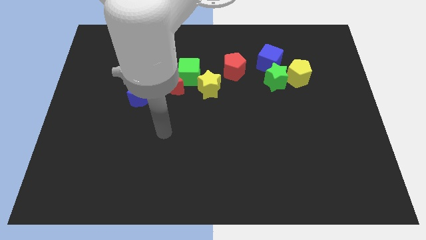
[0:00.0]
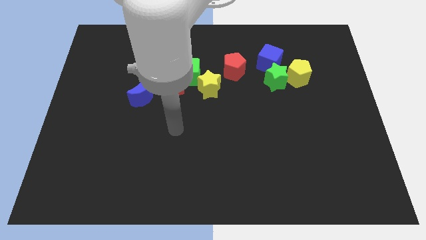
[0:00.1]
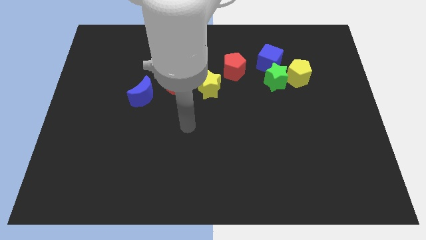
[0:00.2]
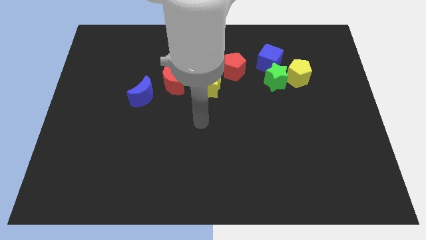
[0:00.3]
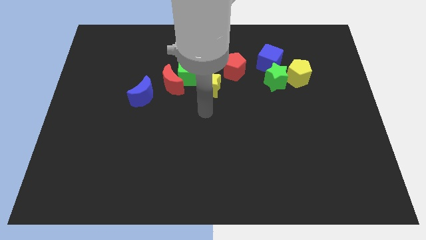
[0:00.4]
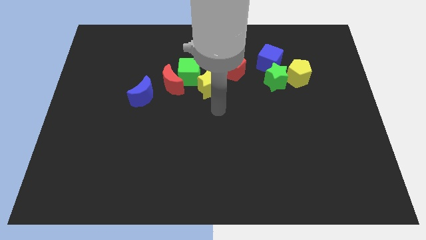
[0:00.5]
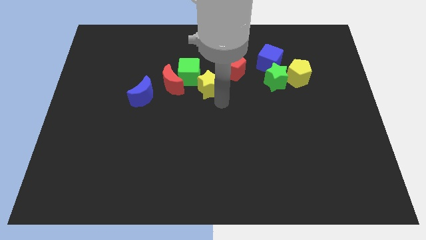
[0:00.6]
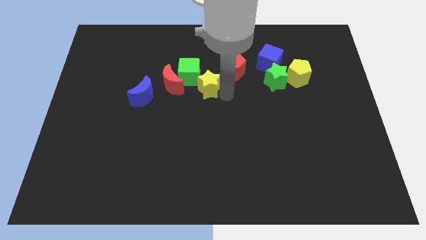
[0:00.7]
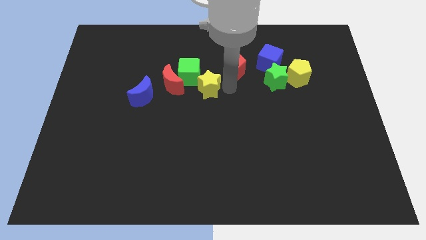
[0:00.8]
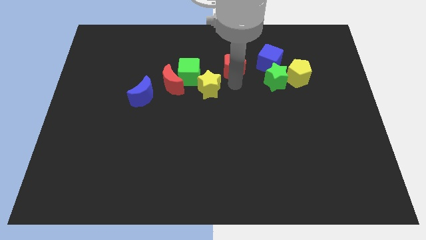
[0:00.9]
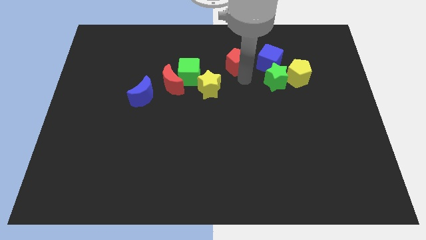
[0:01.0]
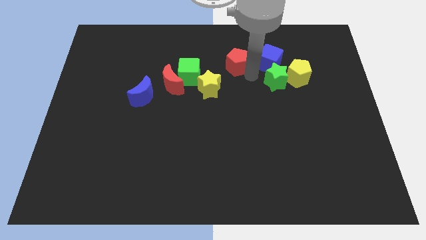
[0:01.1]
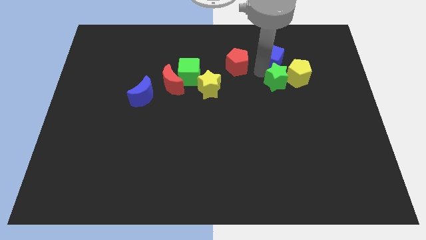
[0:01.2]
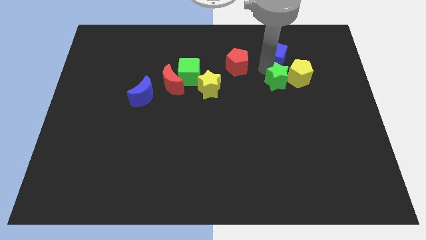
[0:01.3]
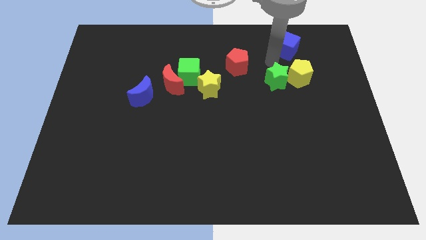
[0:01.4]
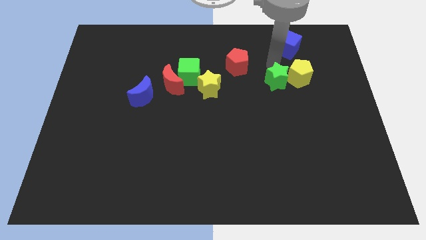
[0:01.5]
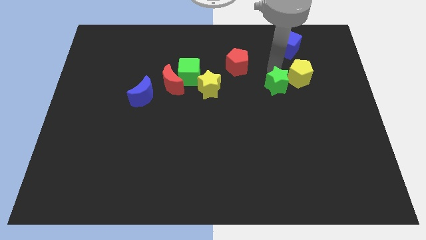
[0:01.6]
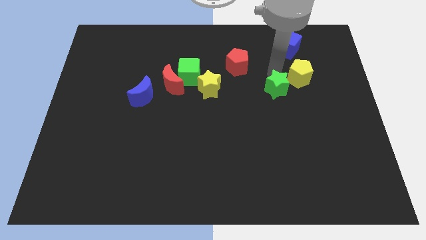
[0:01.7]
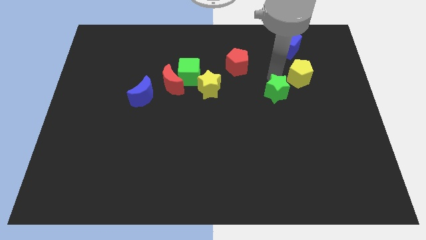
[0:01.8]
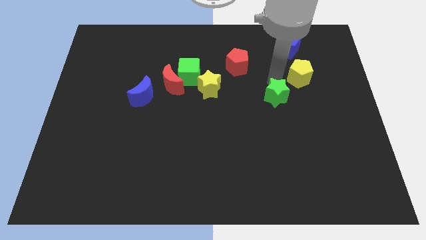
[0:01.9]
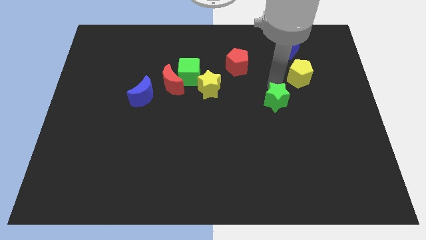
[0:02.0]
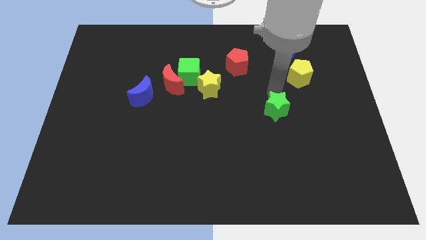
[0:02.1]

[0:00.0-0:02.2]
slide the green star downwards a little bit

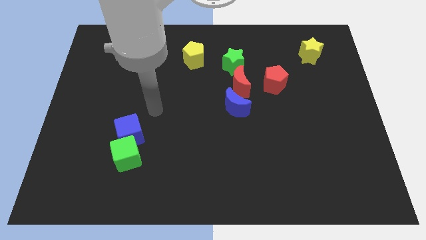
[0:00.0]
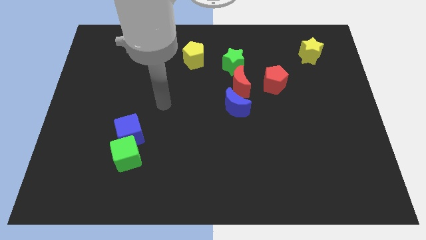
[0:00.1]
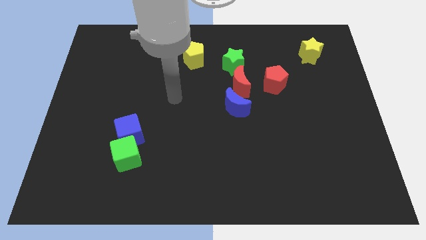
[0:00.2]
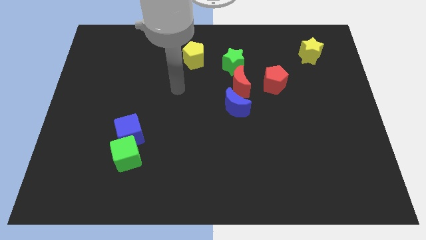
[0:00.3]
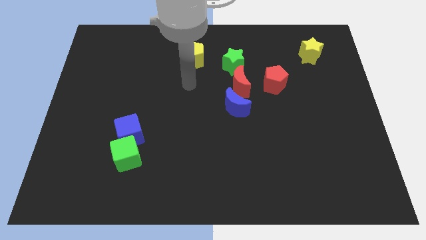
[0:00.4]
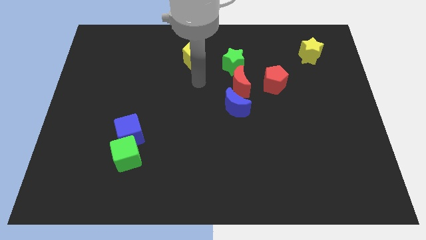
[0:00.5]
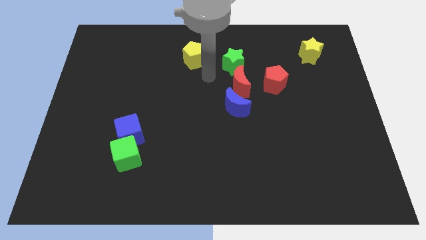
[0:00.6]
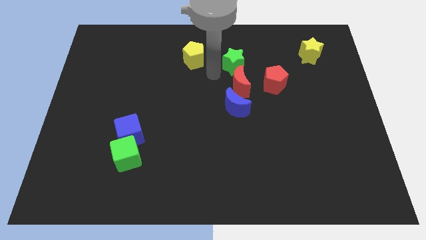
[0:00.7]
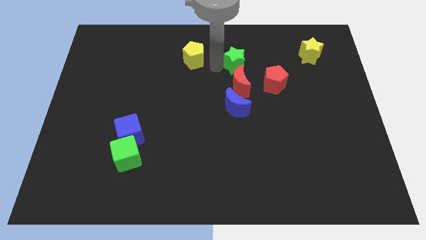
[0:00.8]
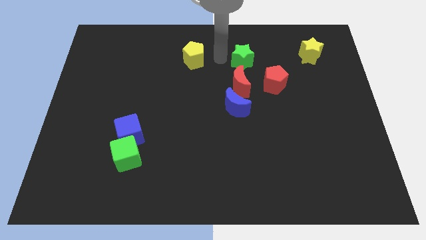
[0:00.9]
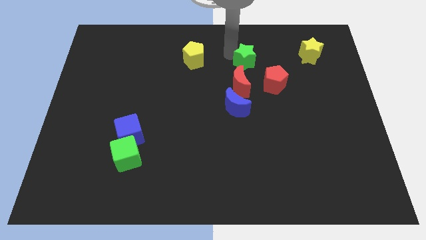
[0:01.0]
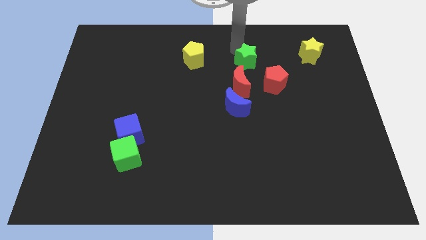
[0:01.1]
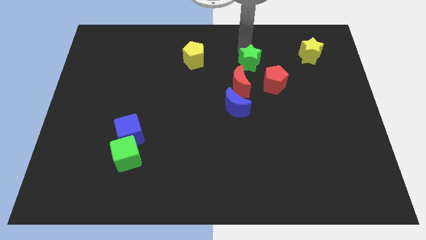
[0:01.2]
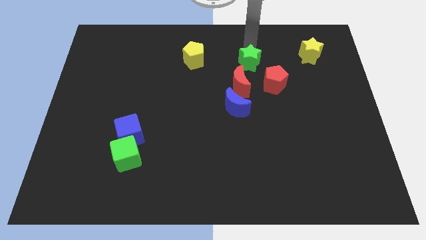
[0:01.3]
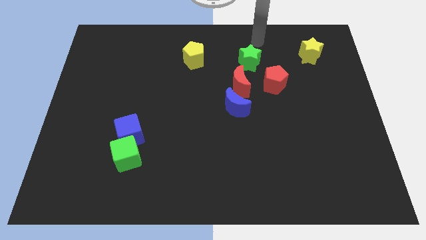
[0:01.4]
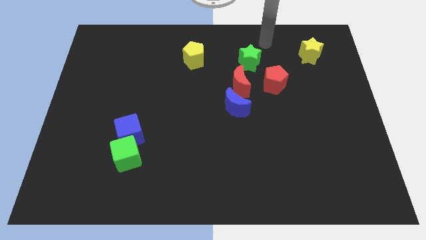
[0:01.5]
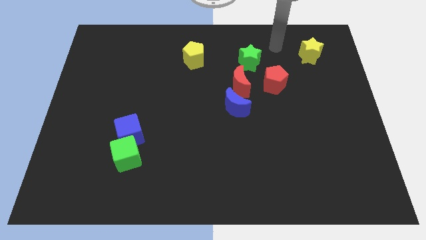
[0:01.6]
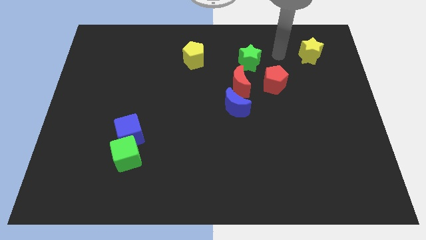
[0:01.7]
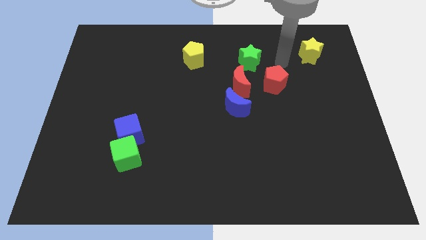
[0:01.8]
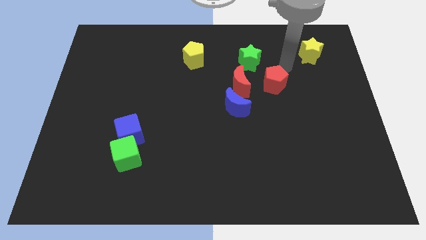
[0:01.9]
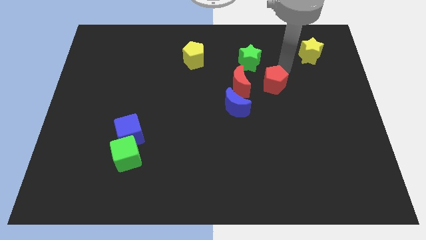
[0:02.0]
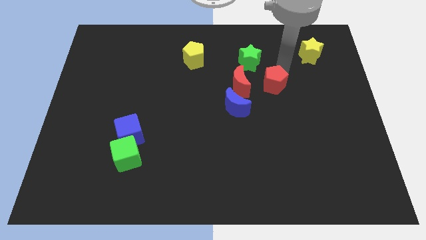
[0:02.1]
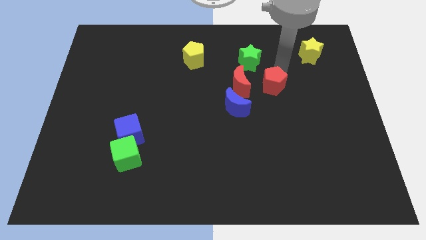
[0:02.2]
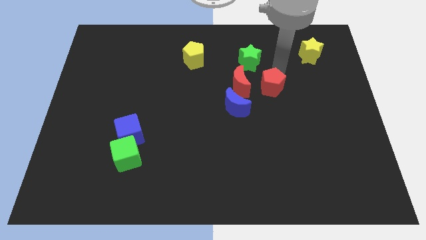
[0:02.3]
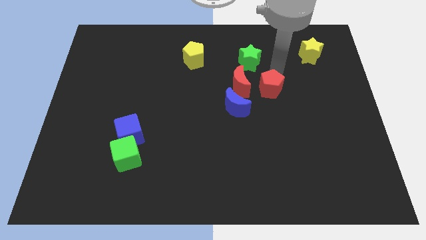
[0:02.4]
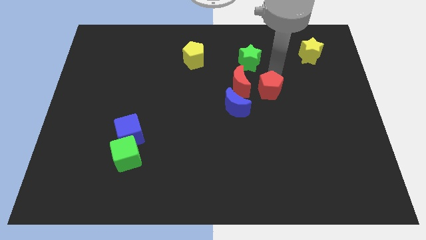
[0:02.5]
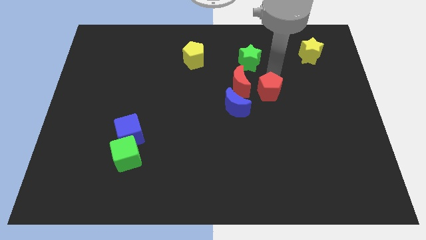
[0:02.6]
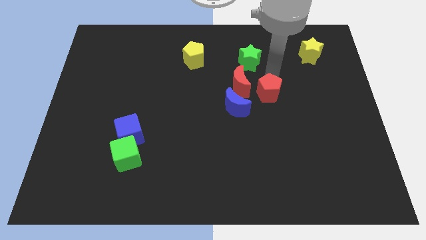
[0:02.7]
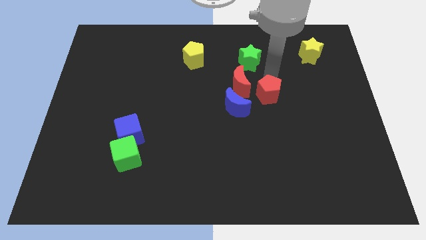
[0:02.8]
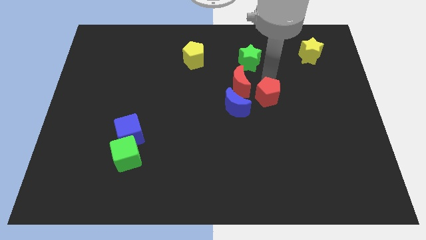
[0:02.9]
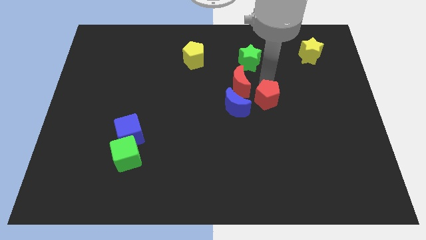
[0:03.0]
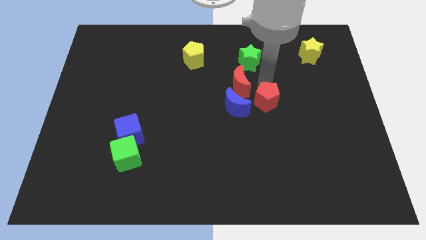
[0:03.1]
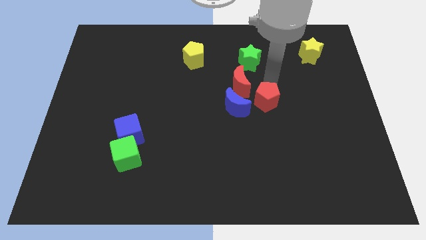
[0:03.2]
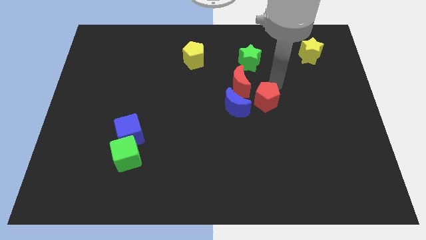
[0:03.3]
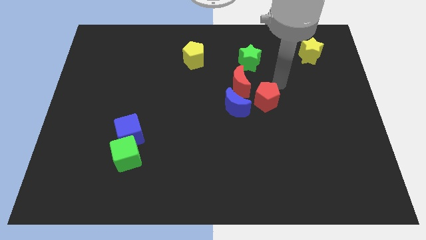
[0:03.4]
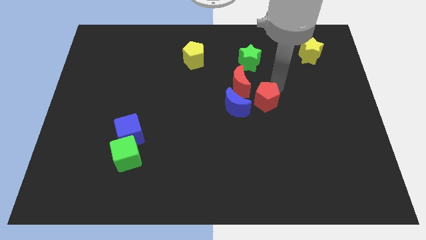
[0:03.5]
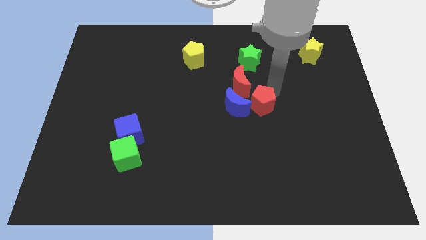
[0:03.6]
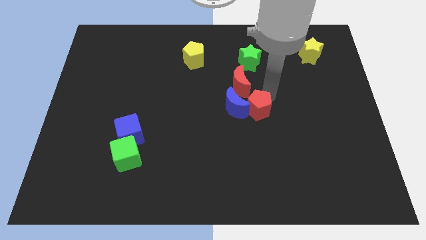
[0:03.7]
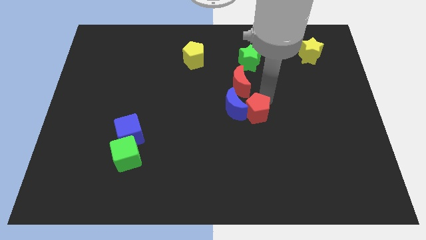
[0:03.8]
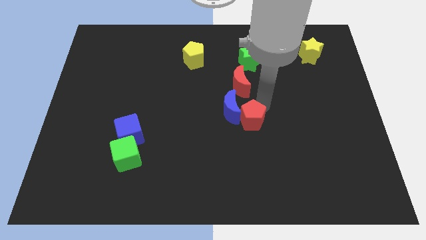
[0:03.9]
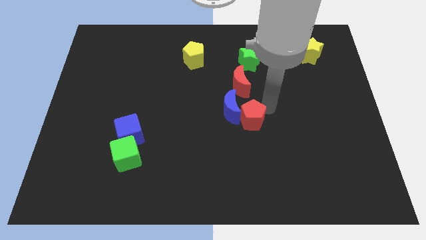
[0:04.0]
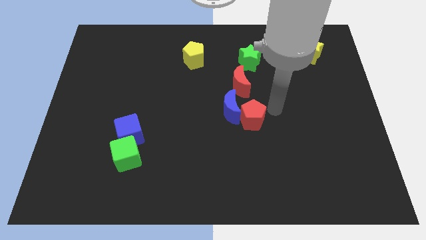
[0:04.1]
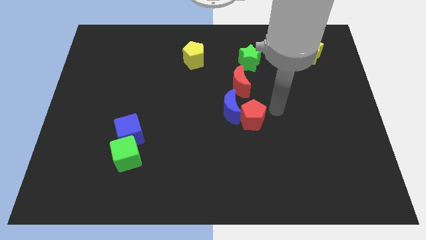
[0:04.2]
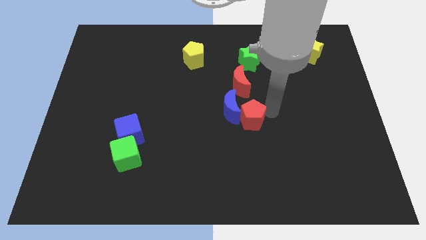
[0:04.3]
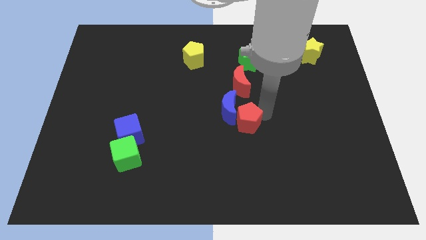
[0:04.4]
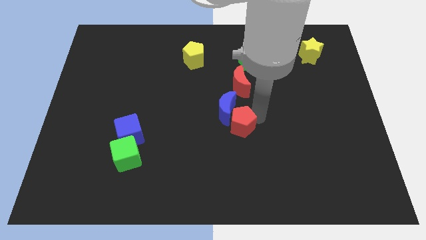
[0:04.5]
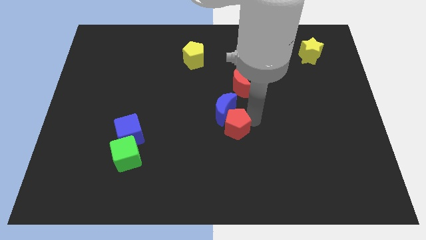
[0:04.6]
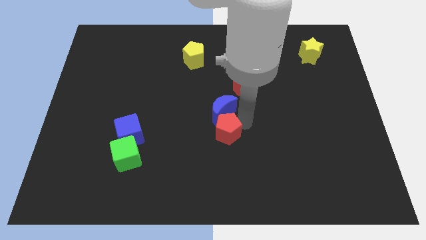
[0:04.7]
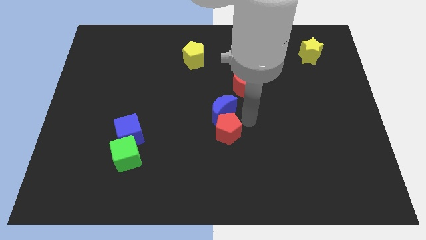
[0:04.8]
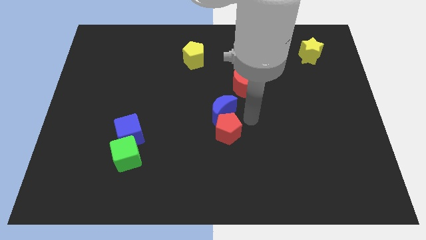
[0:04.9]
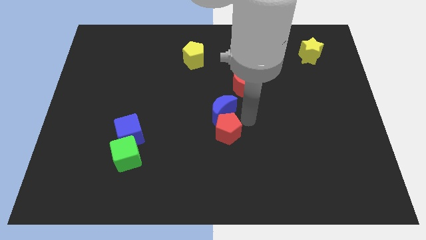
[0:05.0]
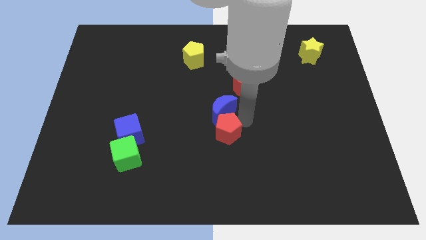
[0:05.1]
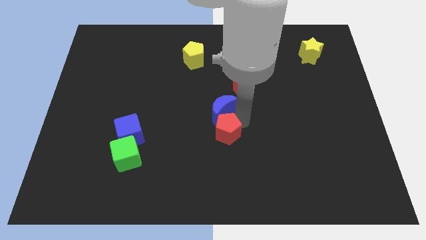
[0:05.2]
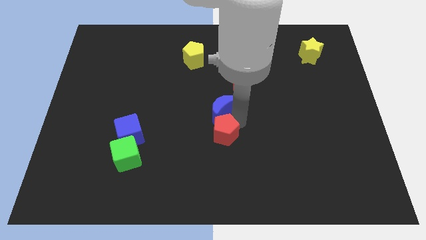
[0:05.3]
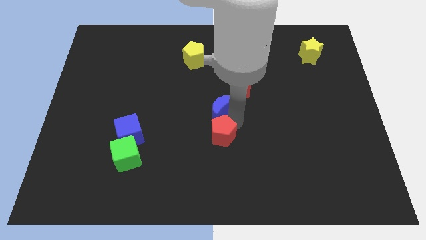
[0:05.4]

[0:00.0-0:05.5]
push the red pentagon diagonally downwards and left
